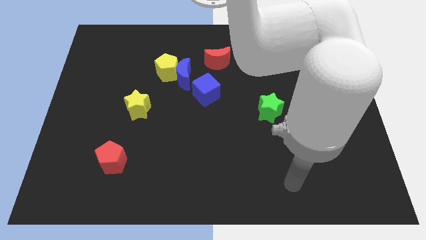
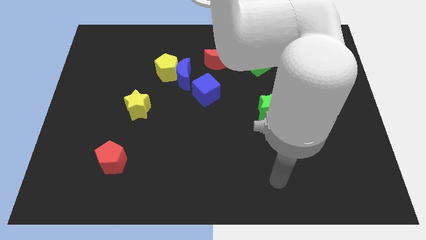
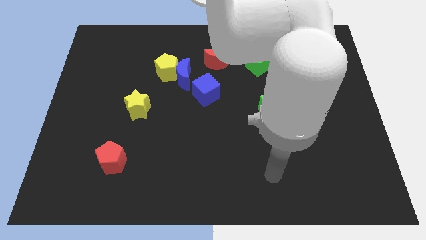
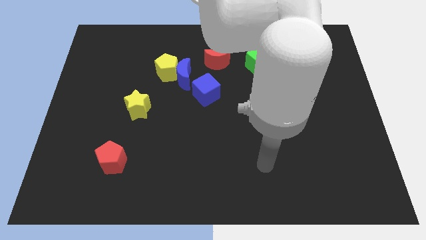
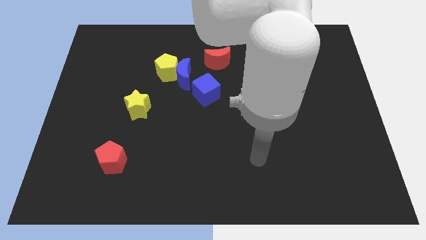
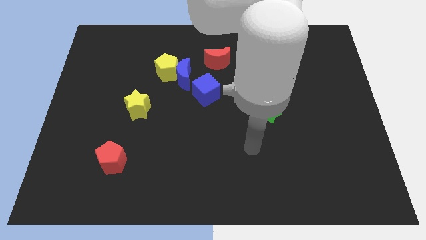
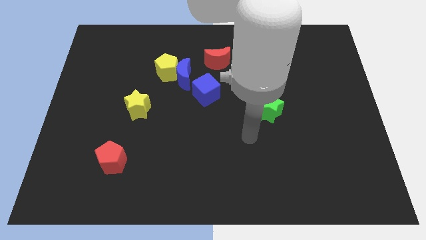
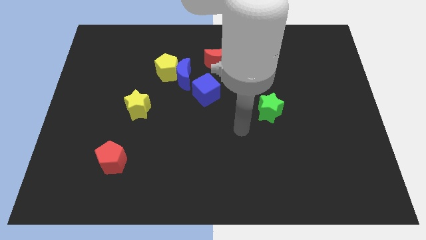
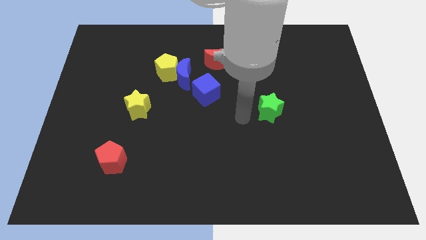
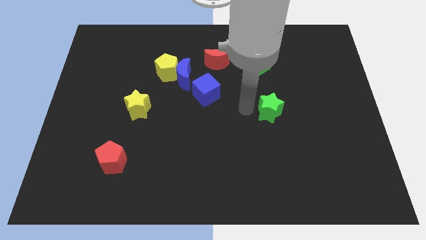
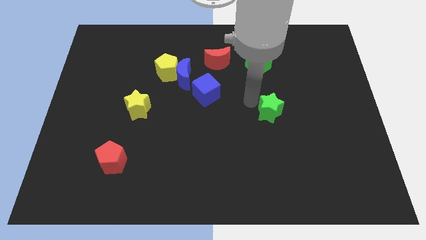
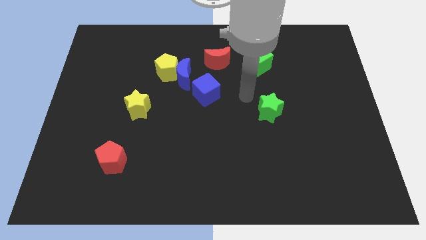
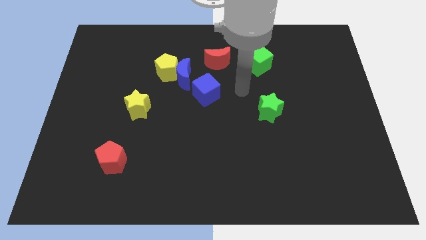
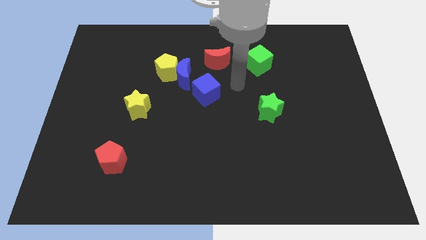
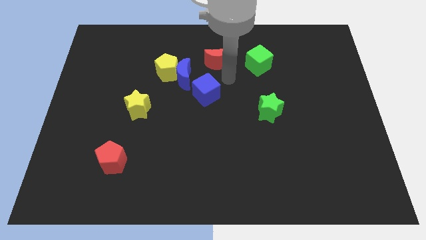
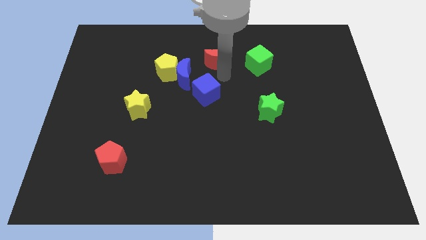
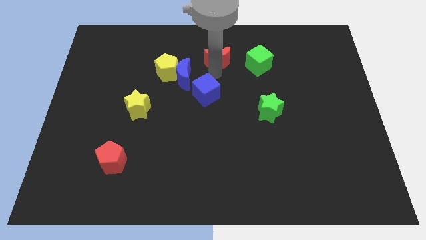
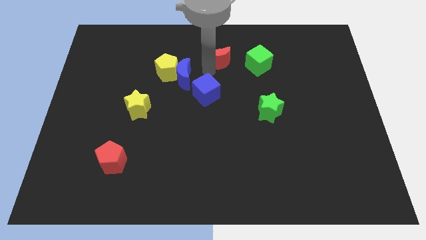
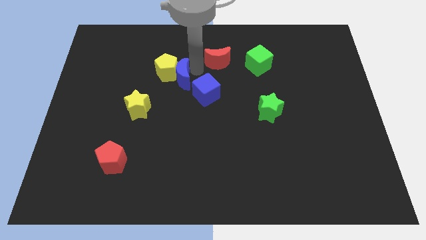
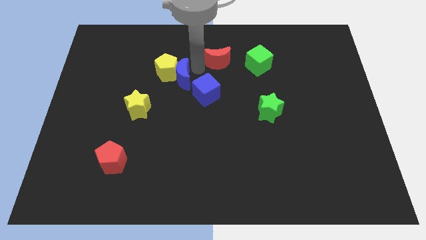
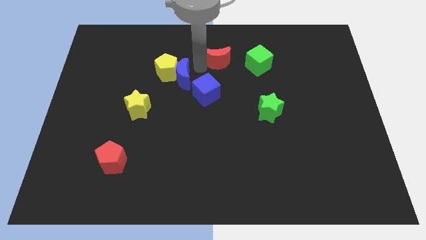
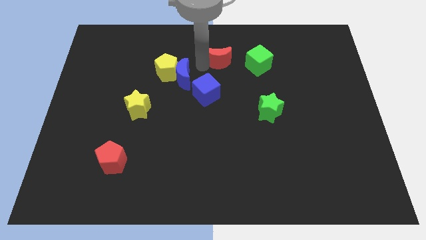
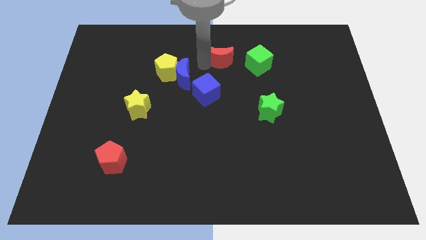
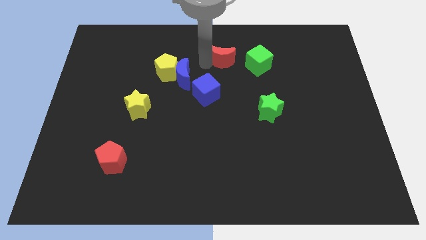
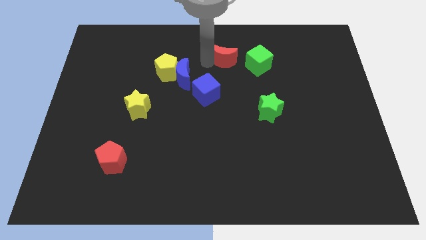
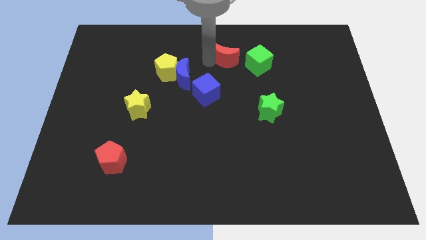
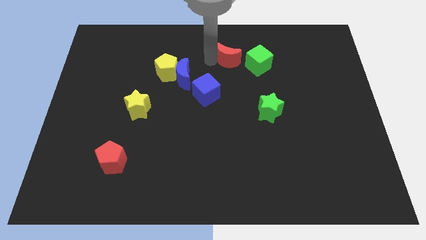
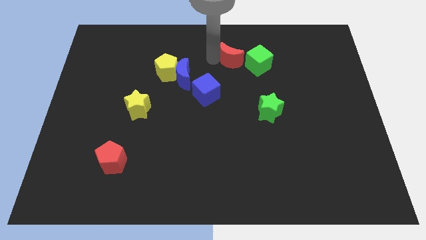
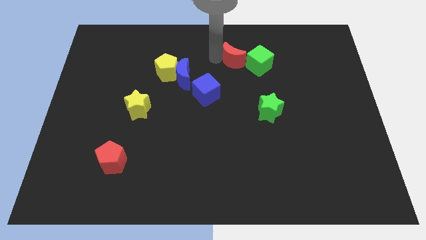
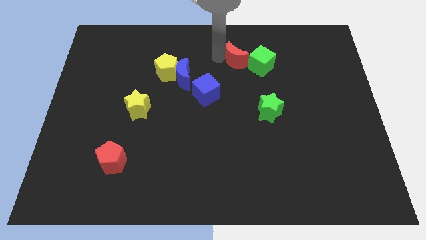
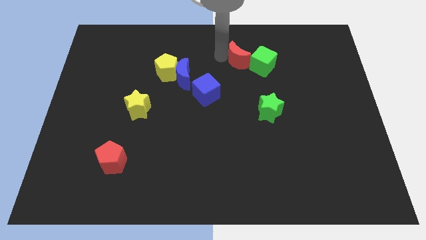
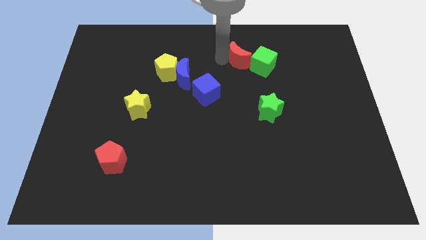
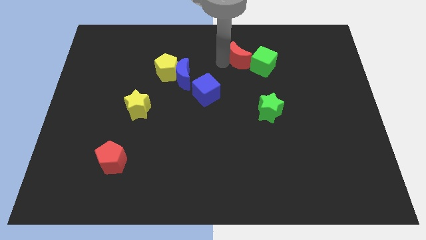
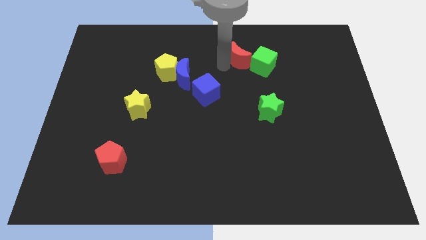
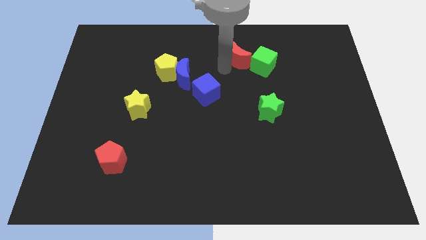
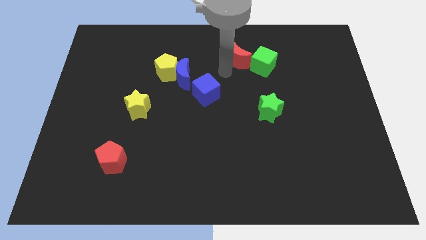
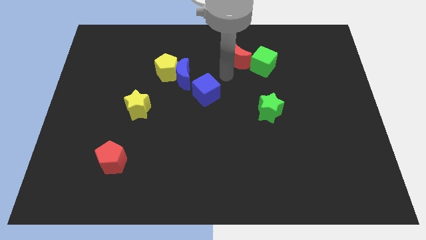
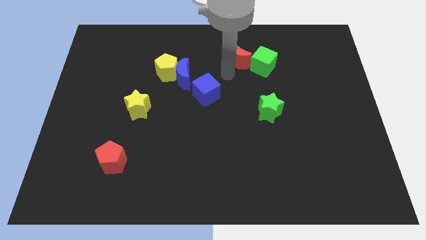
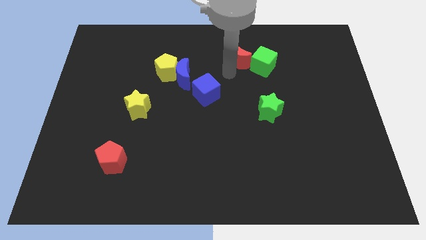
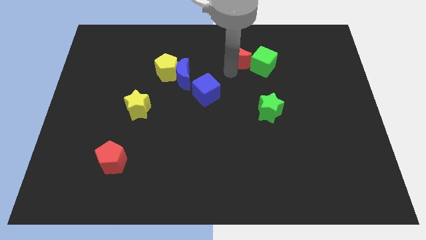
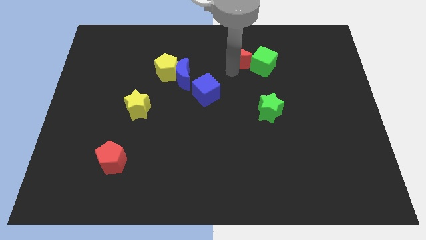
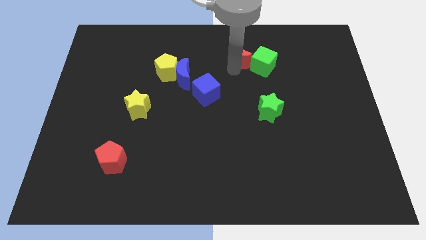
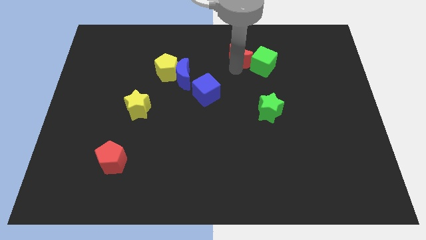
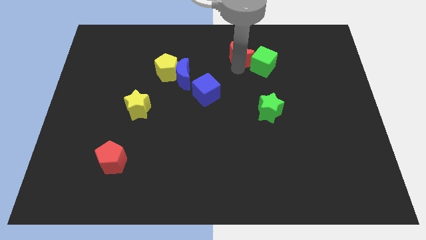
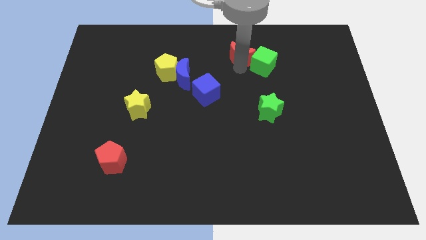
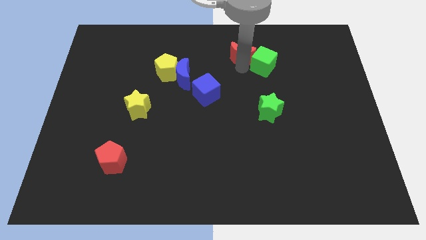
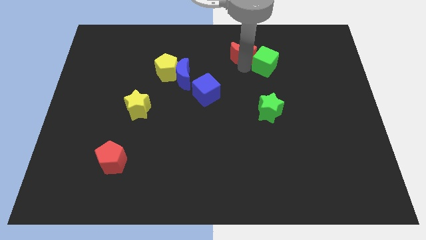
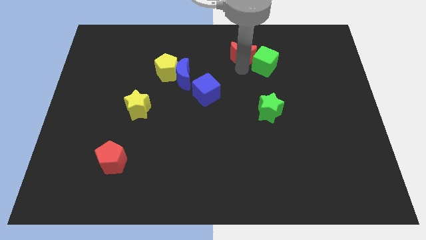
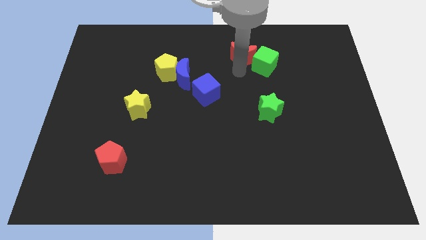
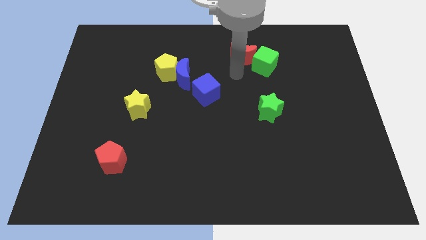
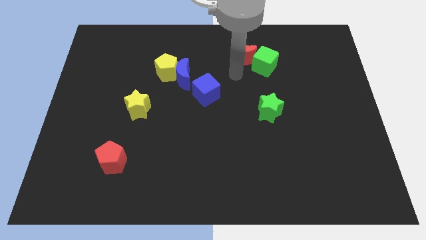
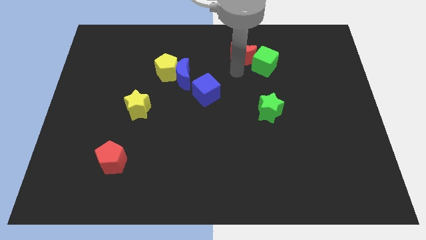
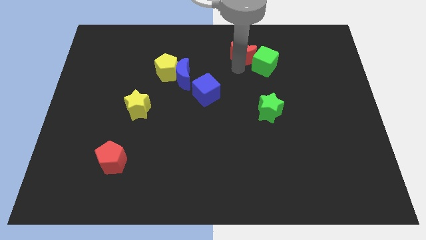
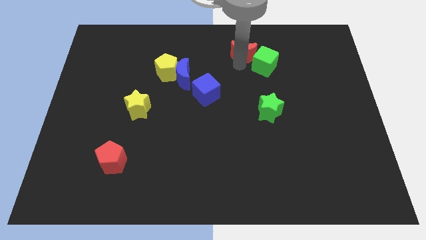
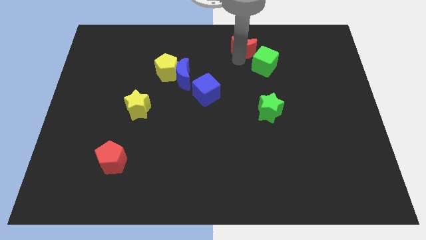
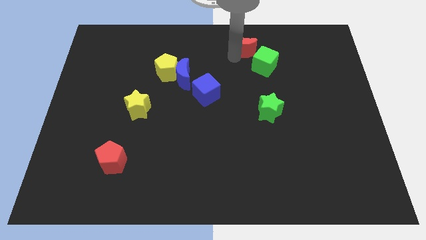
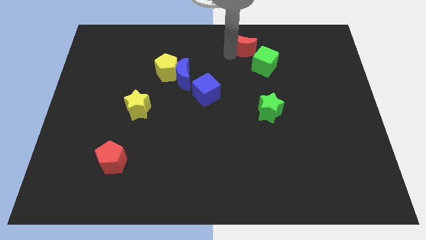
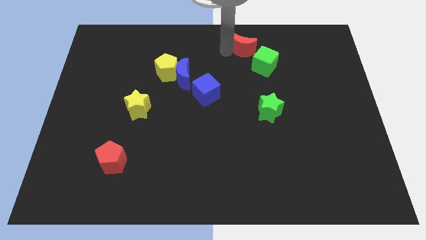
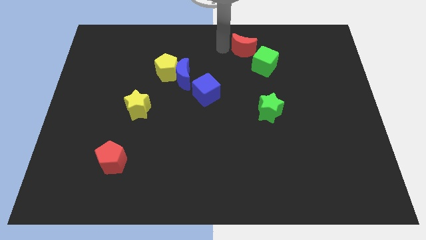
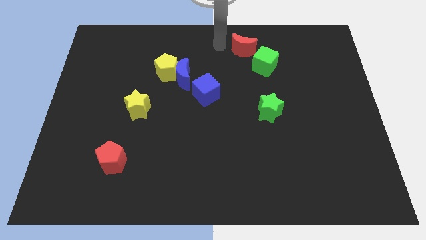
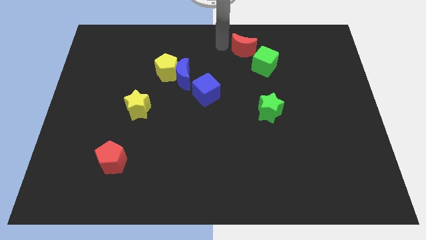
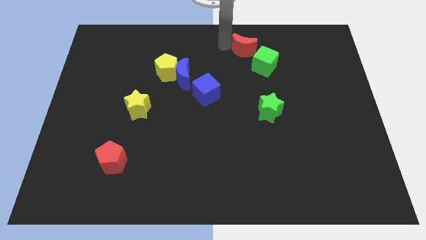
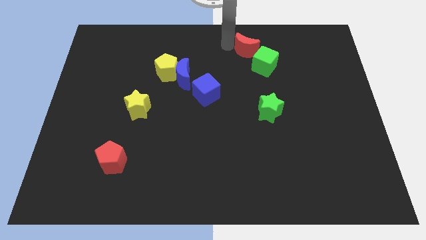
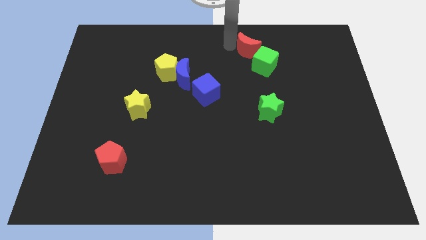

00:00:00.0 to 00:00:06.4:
slide the red moon right a little bit

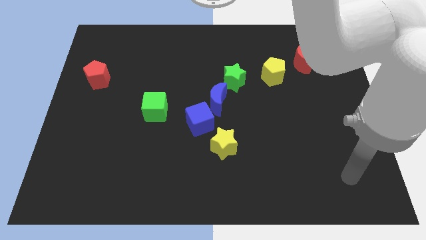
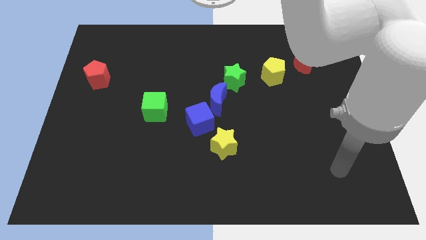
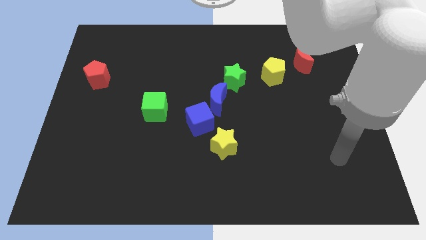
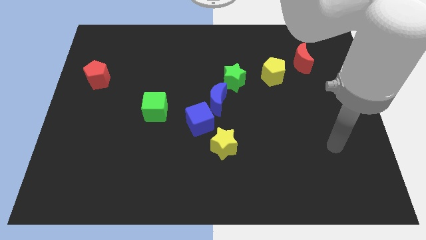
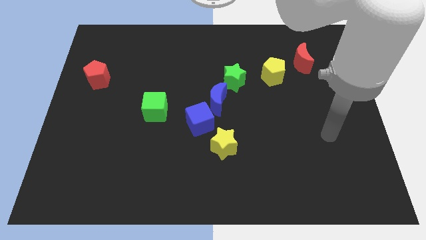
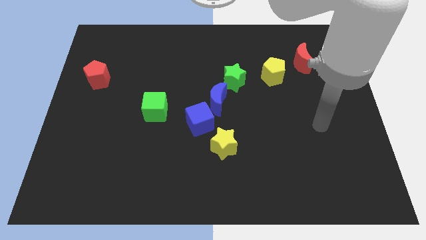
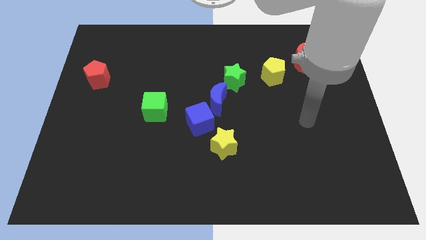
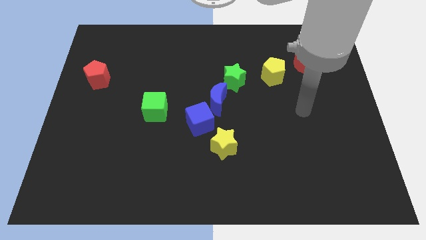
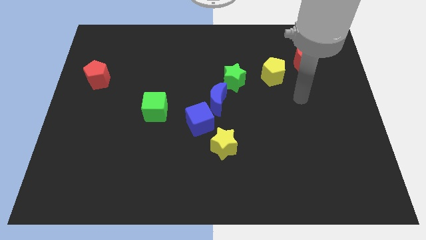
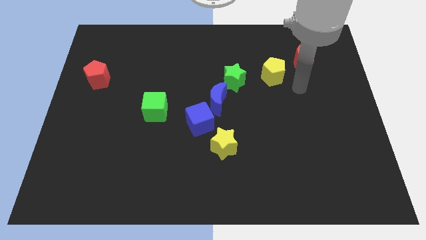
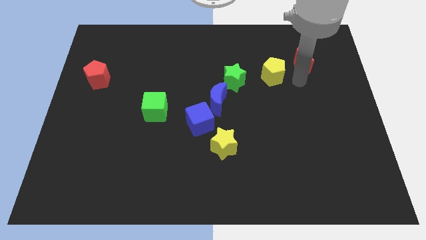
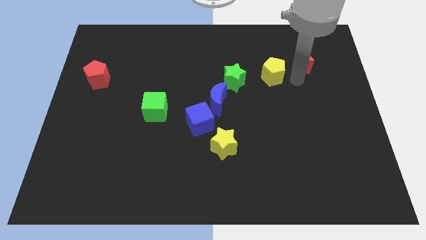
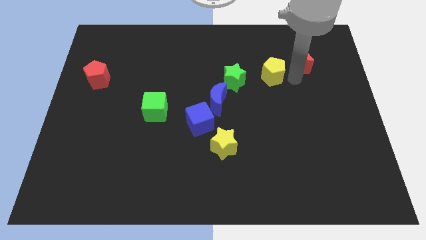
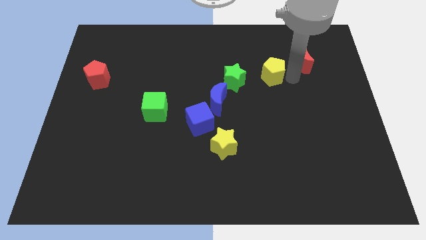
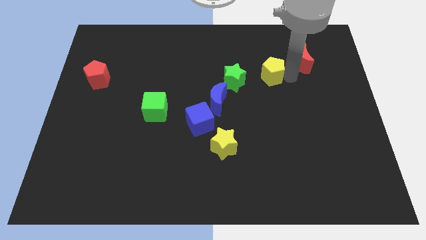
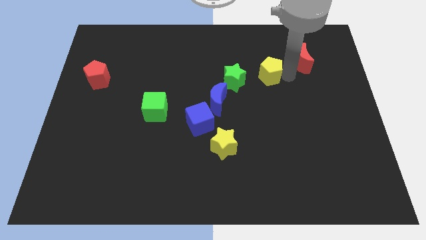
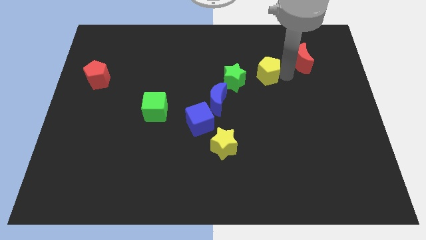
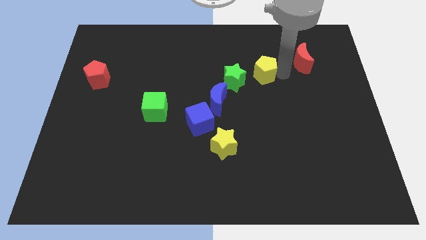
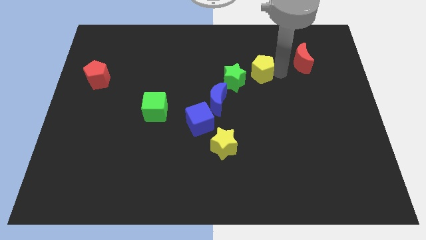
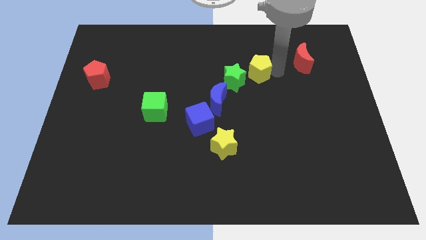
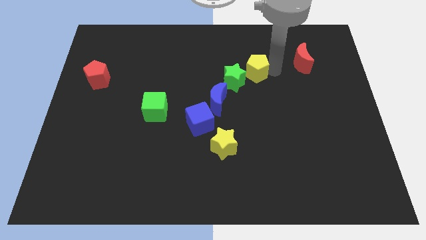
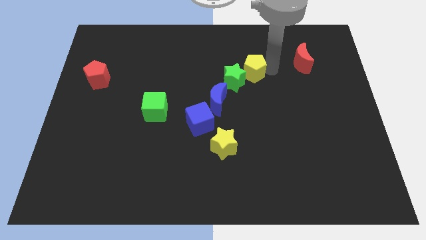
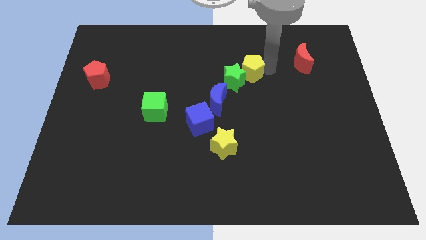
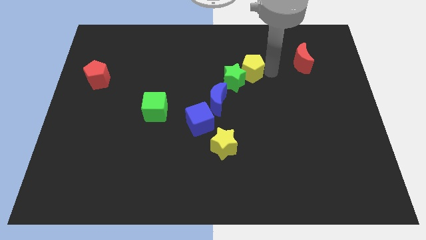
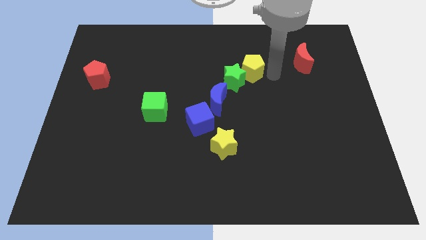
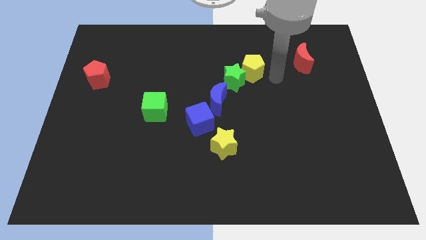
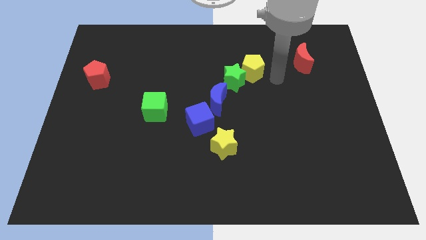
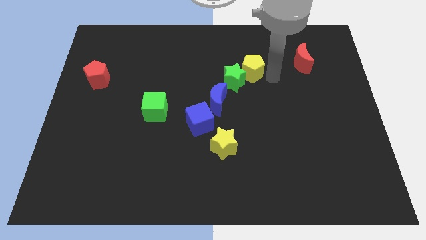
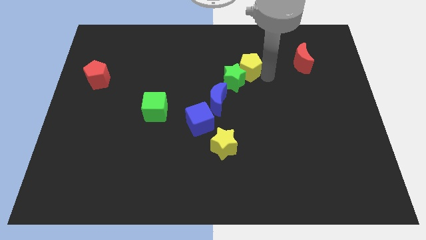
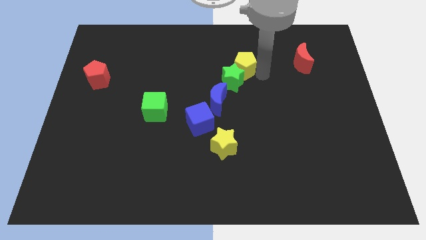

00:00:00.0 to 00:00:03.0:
move the yellow pentagon to the left slightly
